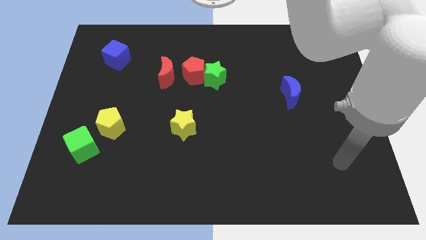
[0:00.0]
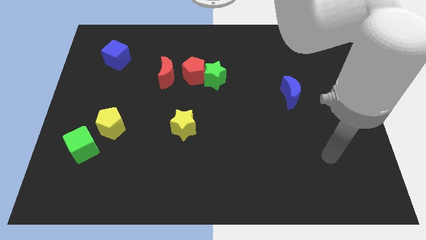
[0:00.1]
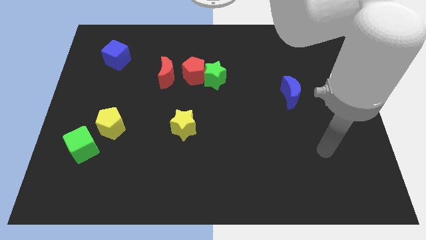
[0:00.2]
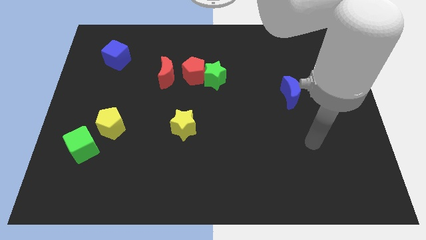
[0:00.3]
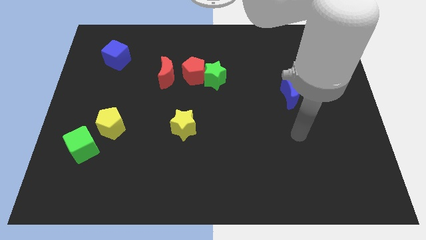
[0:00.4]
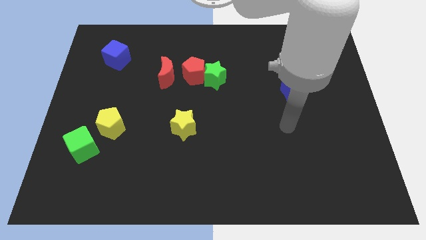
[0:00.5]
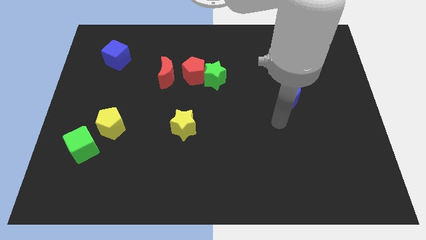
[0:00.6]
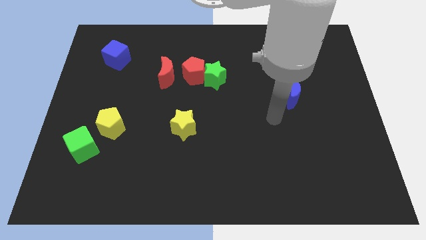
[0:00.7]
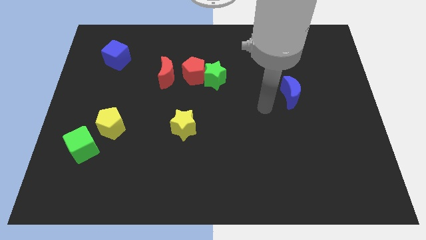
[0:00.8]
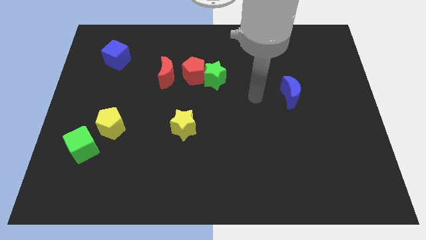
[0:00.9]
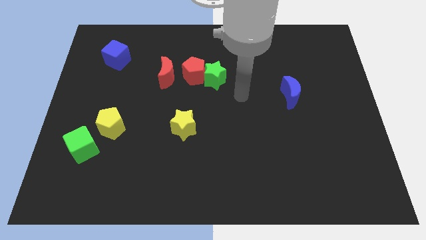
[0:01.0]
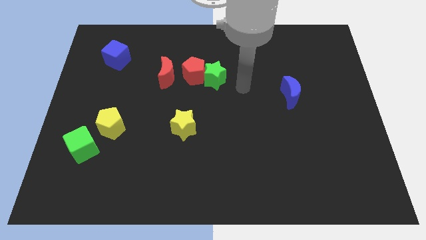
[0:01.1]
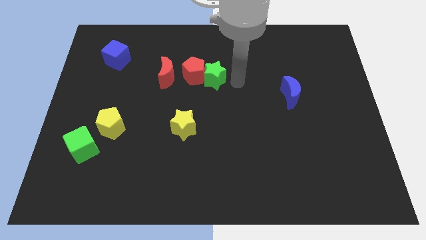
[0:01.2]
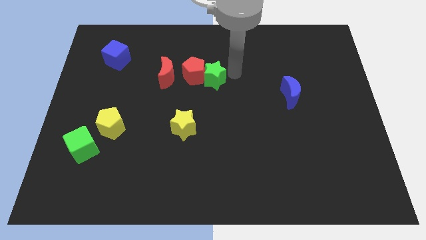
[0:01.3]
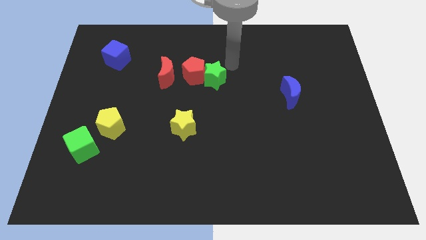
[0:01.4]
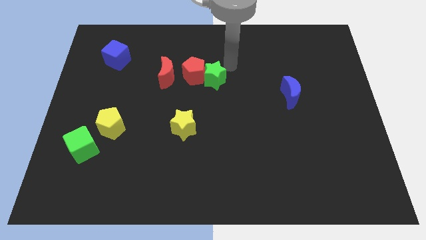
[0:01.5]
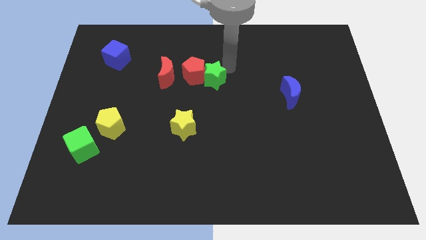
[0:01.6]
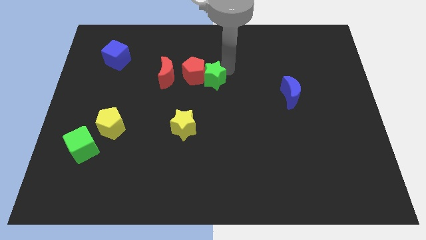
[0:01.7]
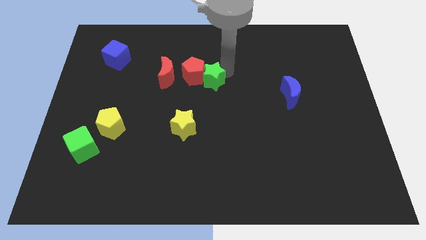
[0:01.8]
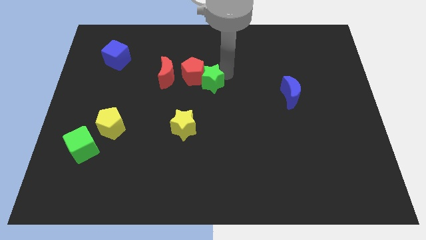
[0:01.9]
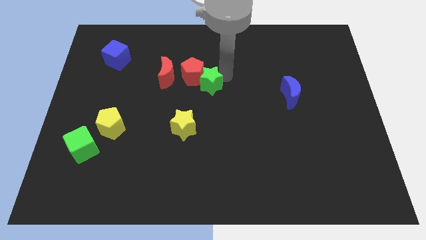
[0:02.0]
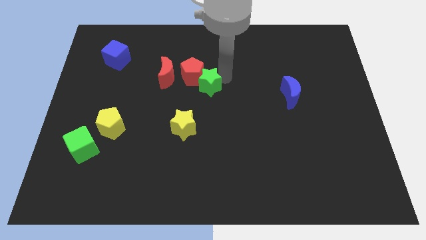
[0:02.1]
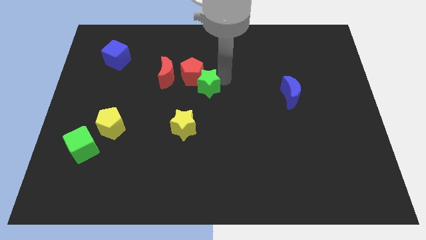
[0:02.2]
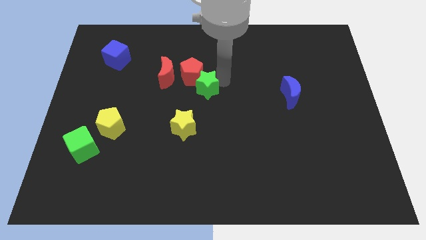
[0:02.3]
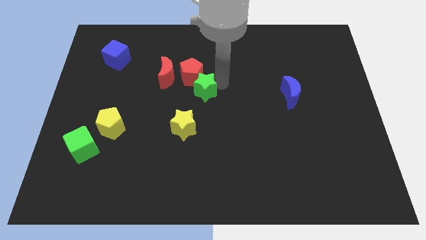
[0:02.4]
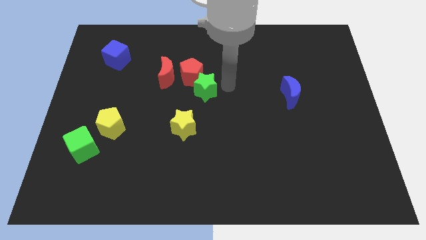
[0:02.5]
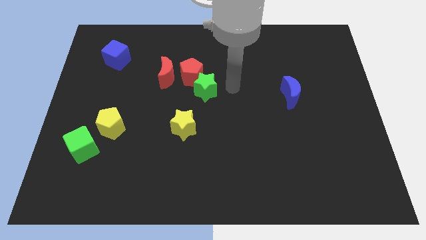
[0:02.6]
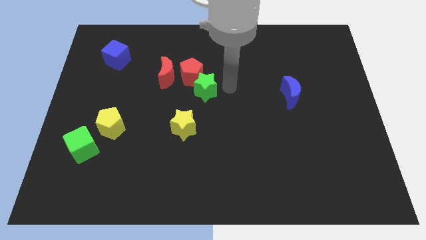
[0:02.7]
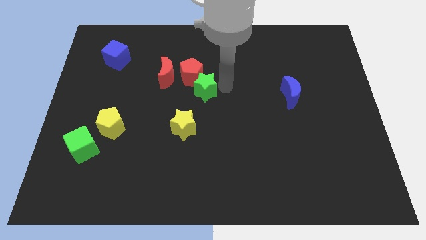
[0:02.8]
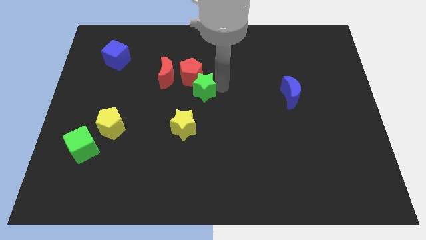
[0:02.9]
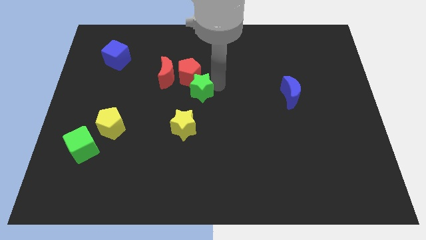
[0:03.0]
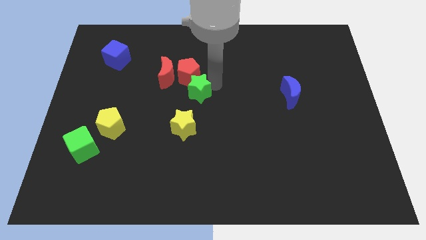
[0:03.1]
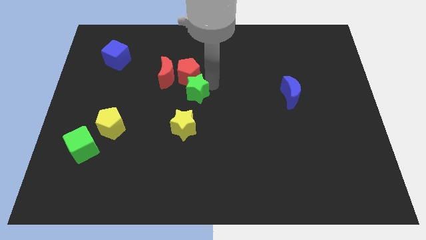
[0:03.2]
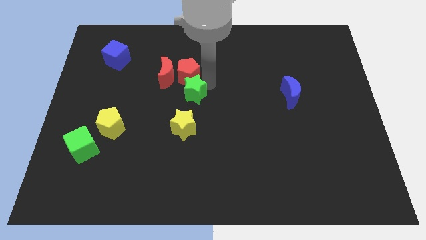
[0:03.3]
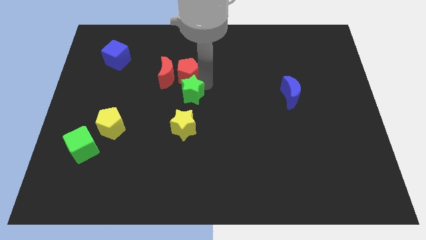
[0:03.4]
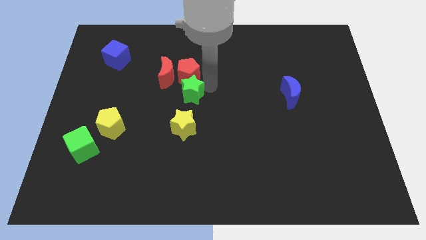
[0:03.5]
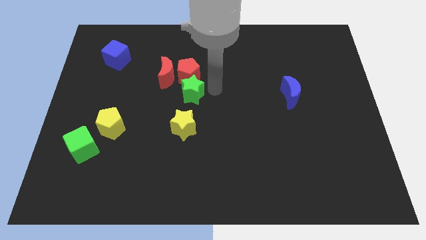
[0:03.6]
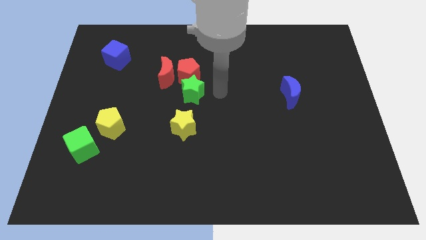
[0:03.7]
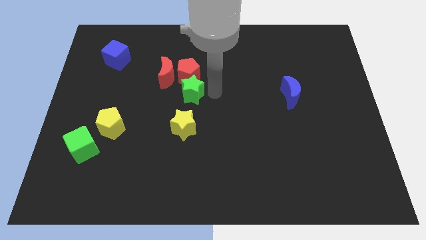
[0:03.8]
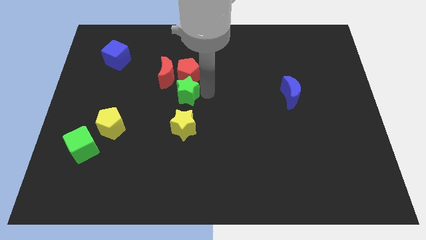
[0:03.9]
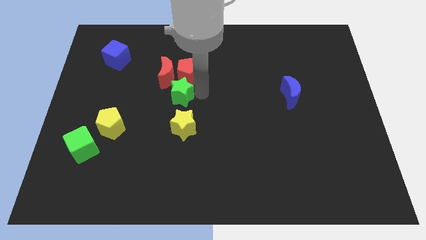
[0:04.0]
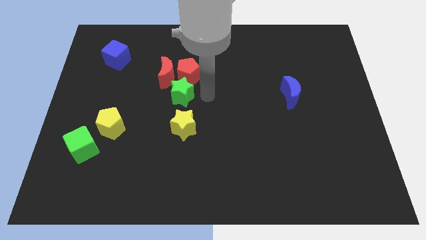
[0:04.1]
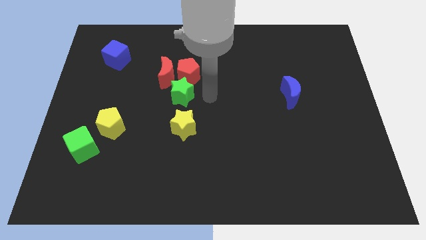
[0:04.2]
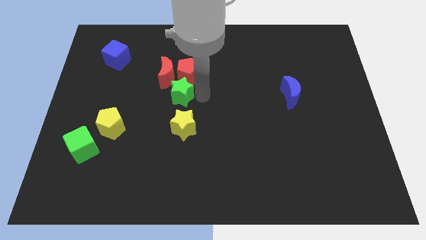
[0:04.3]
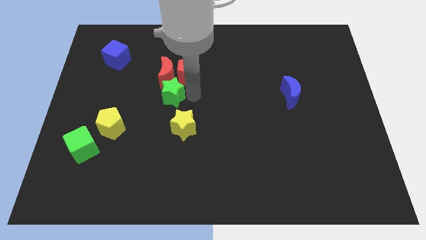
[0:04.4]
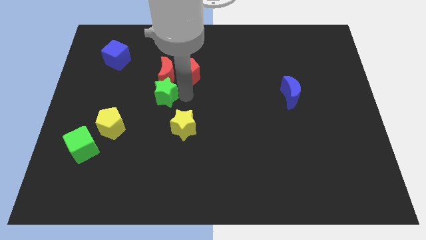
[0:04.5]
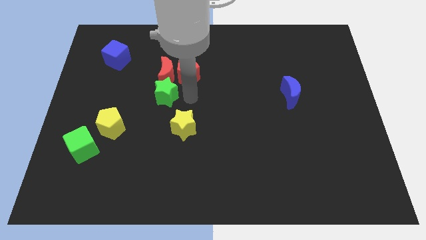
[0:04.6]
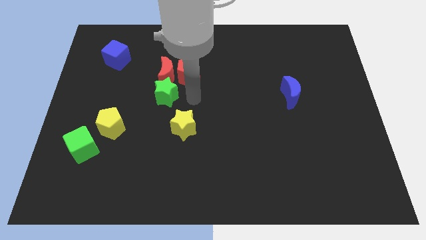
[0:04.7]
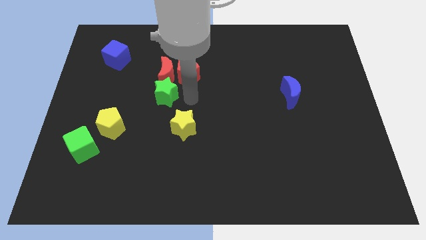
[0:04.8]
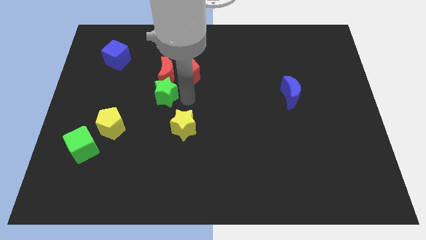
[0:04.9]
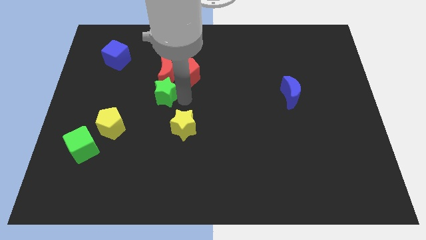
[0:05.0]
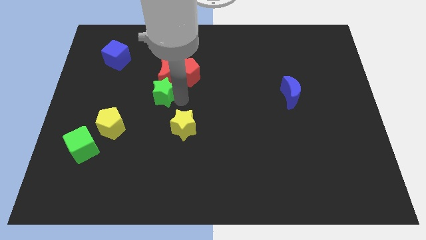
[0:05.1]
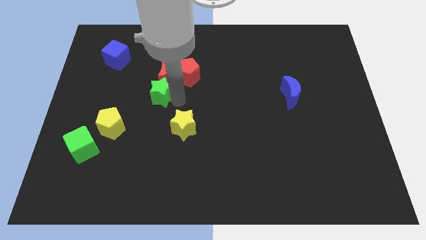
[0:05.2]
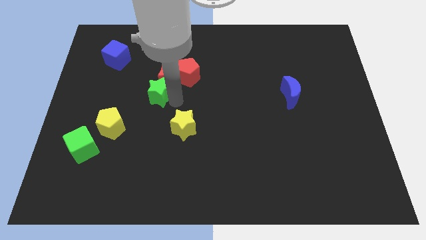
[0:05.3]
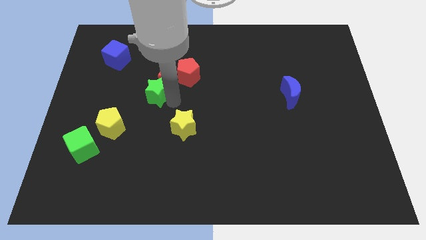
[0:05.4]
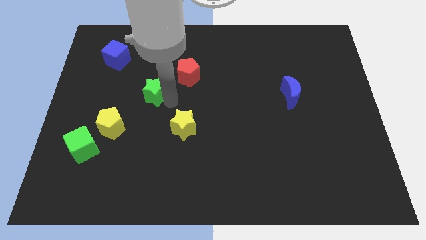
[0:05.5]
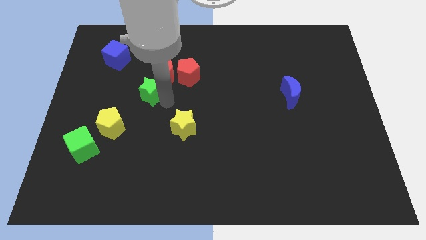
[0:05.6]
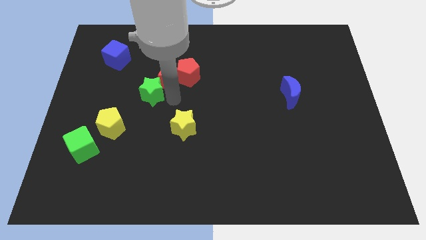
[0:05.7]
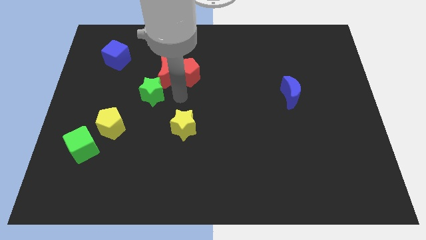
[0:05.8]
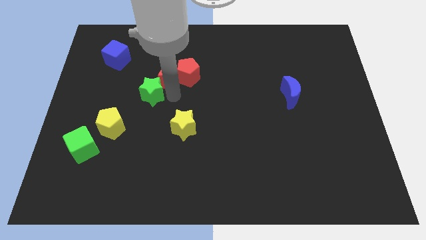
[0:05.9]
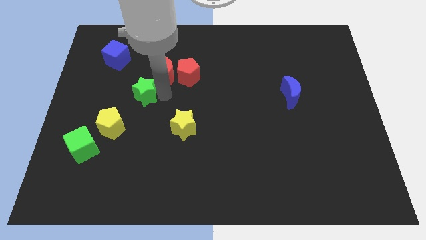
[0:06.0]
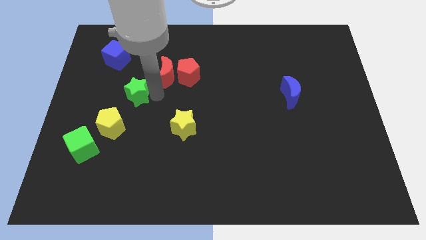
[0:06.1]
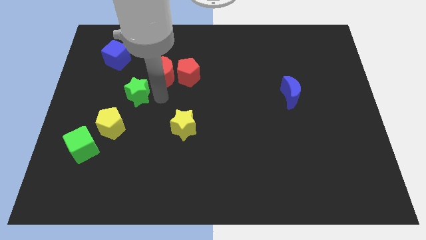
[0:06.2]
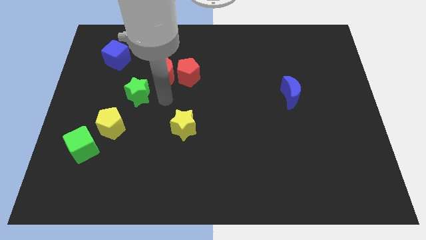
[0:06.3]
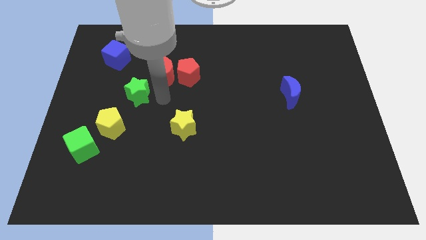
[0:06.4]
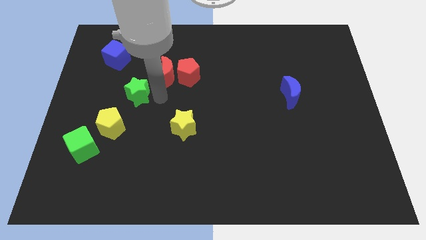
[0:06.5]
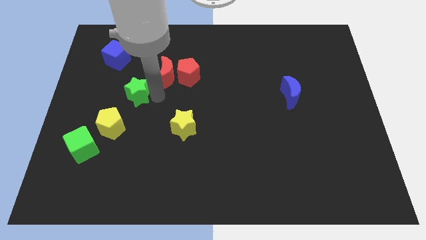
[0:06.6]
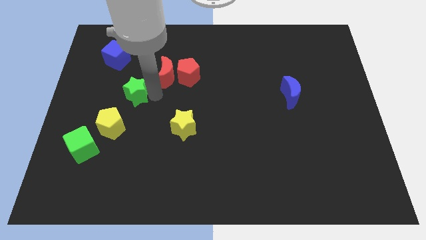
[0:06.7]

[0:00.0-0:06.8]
slide the green star to the top side of the yellow pentagon

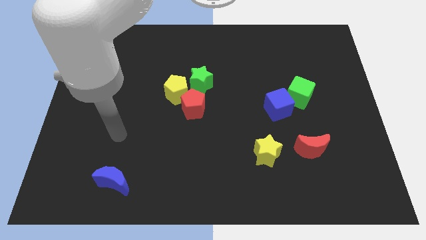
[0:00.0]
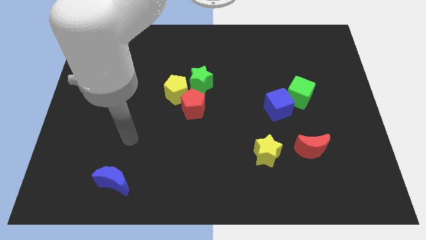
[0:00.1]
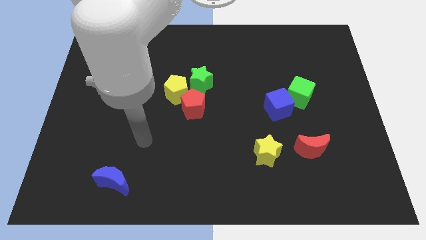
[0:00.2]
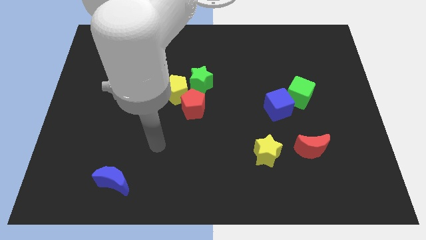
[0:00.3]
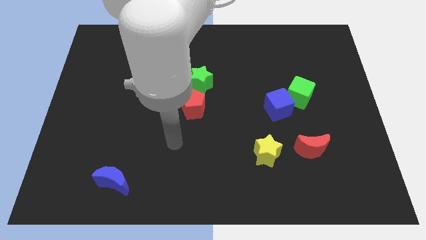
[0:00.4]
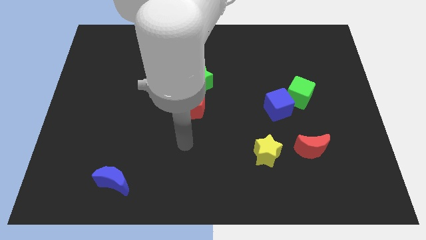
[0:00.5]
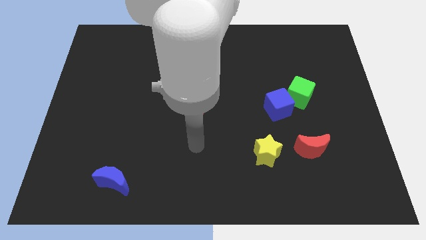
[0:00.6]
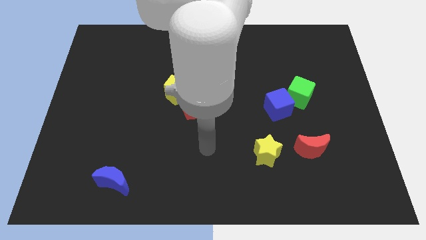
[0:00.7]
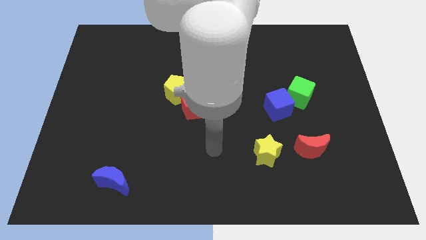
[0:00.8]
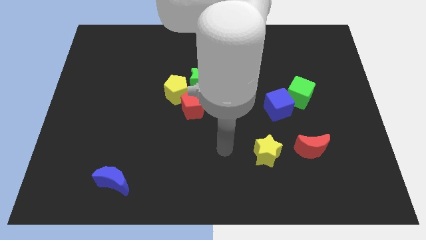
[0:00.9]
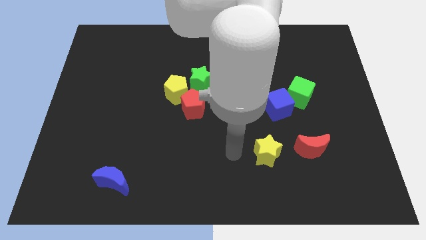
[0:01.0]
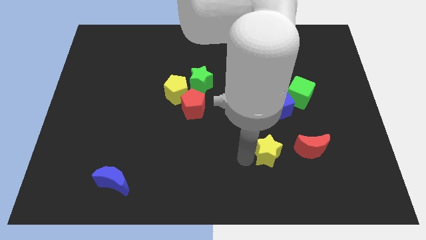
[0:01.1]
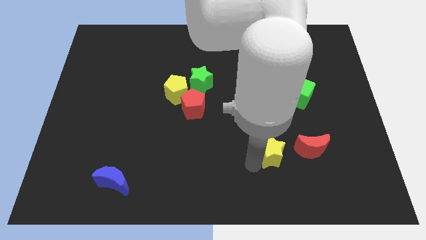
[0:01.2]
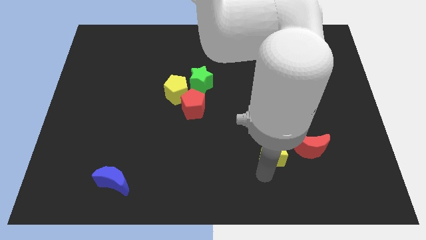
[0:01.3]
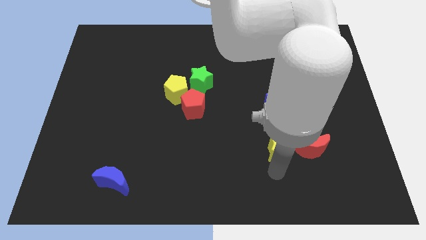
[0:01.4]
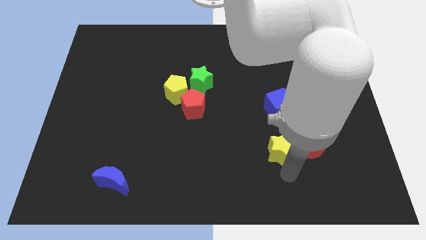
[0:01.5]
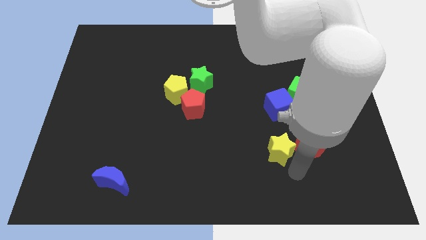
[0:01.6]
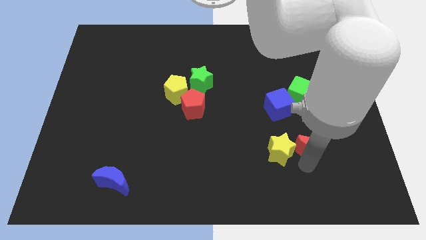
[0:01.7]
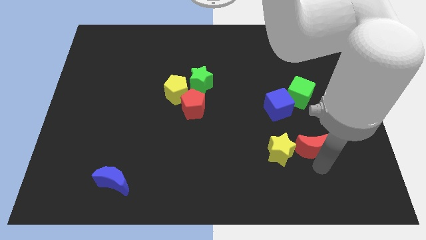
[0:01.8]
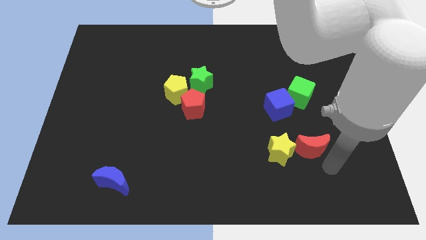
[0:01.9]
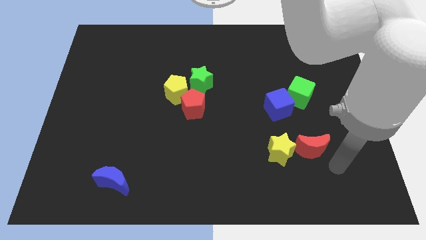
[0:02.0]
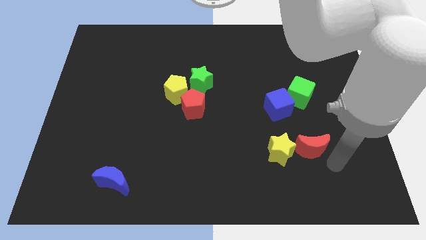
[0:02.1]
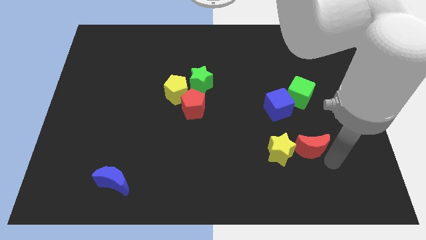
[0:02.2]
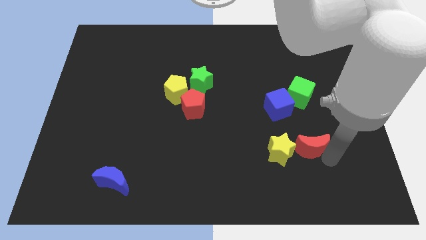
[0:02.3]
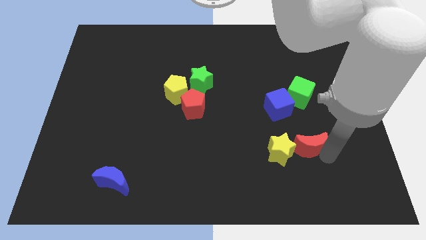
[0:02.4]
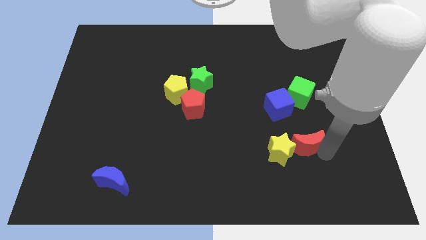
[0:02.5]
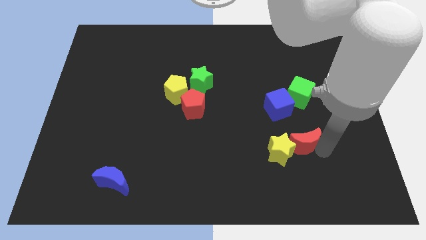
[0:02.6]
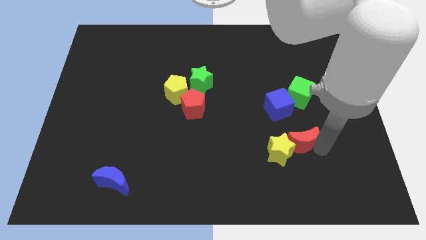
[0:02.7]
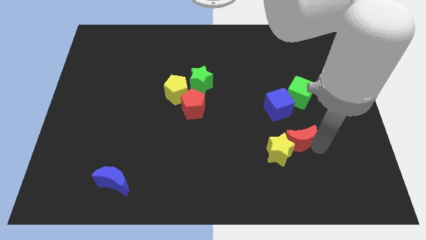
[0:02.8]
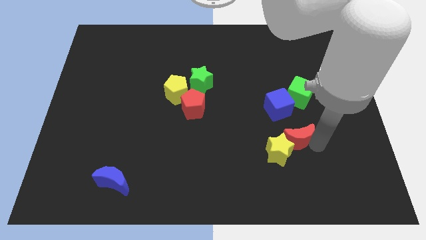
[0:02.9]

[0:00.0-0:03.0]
put the red moon to the top side of the yellow star
